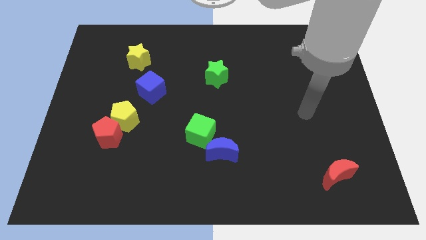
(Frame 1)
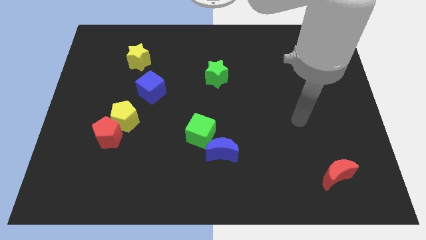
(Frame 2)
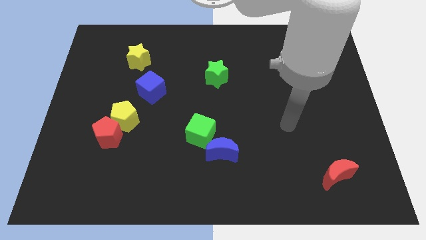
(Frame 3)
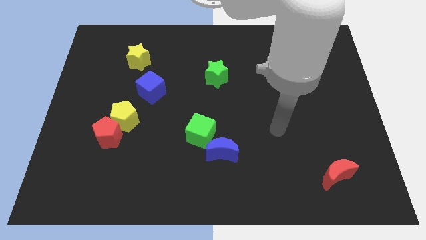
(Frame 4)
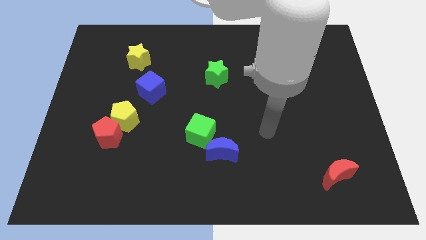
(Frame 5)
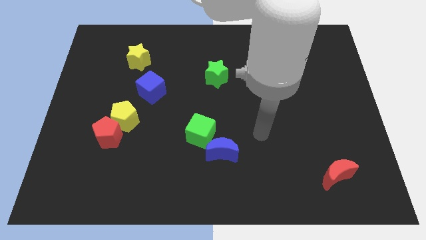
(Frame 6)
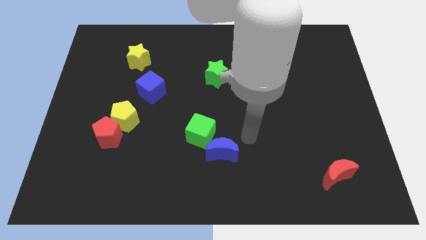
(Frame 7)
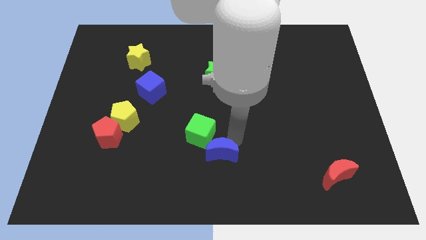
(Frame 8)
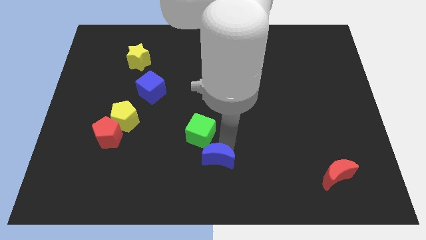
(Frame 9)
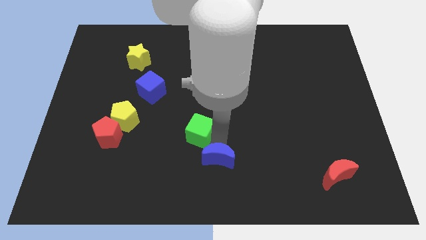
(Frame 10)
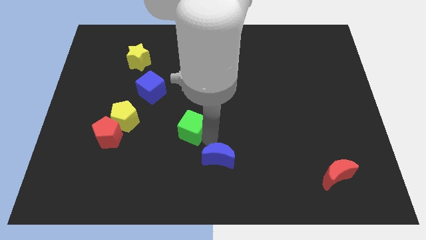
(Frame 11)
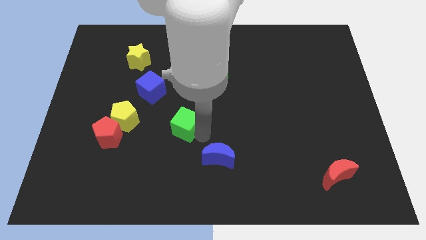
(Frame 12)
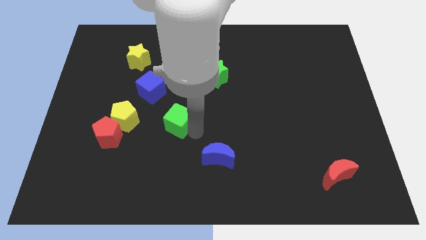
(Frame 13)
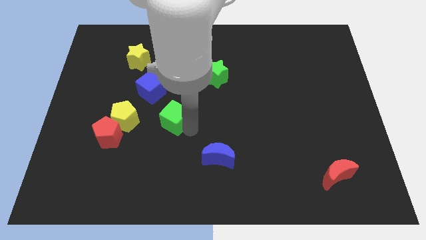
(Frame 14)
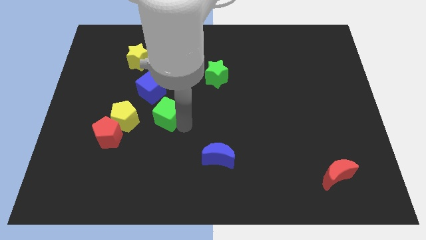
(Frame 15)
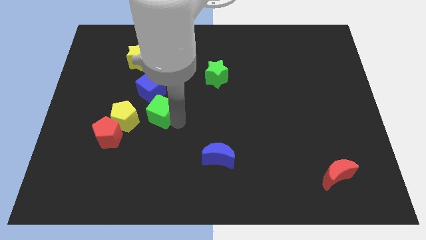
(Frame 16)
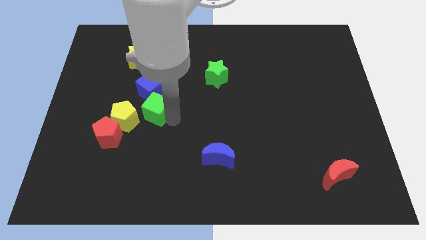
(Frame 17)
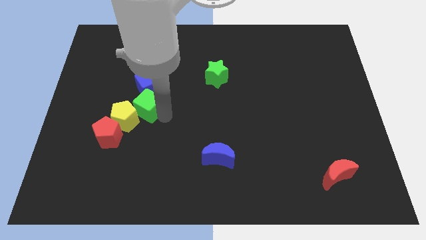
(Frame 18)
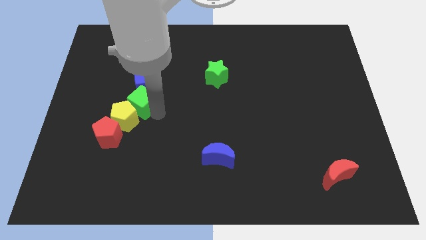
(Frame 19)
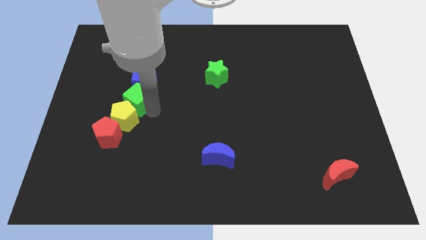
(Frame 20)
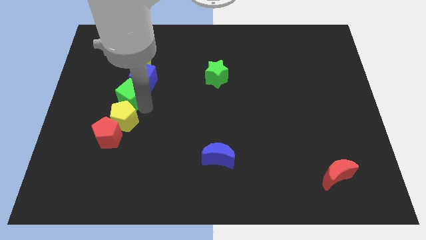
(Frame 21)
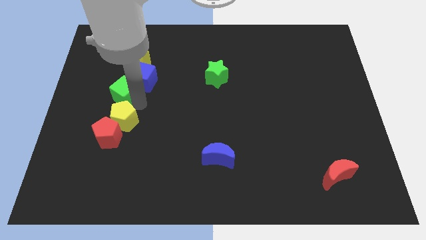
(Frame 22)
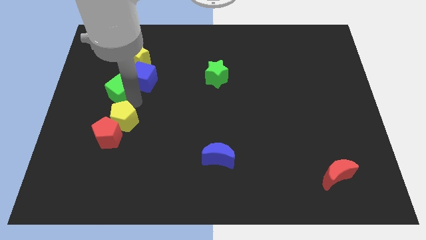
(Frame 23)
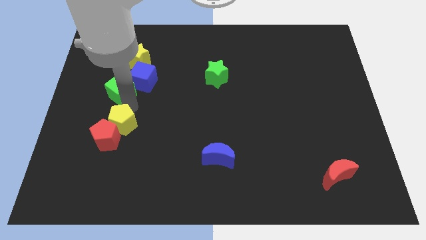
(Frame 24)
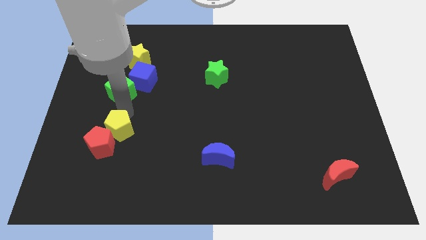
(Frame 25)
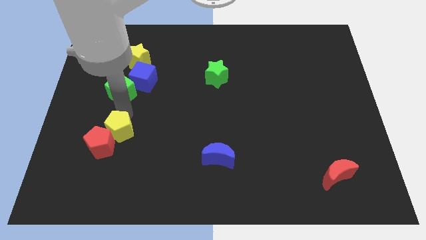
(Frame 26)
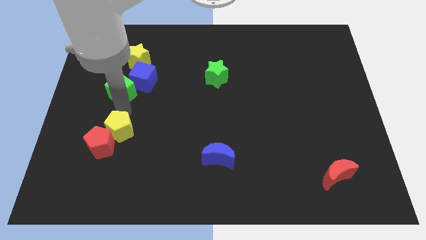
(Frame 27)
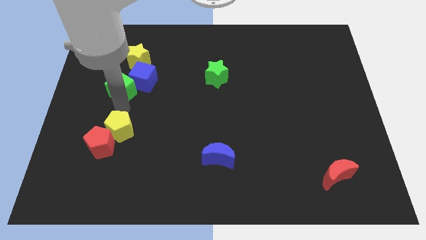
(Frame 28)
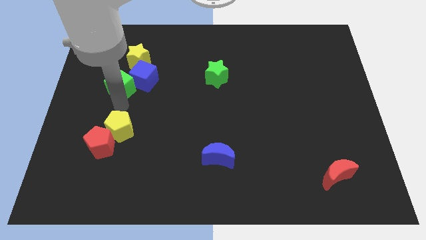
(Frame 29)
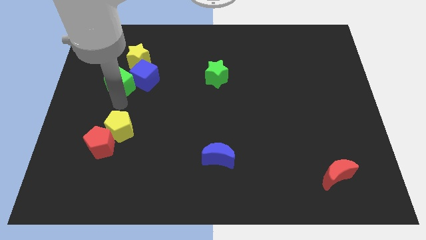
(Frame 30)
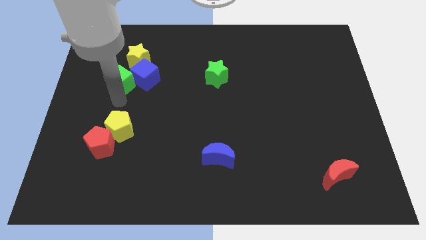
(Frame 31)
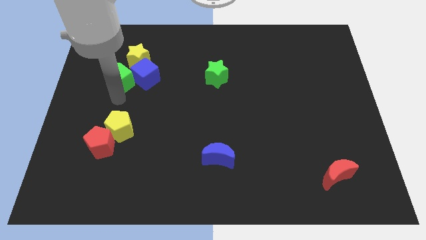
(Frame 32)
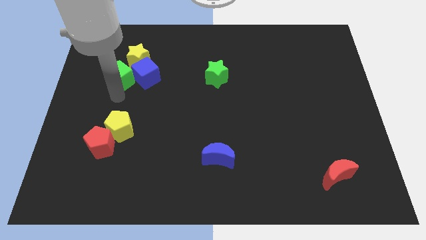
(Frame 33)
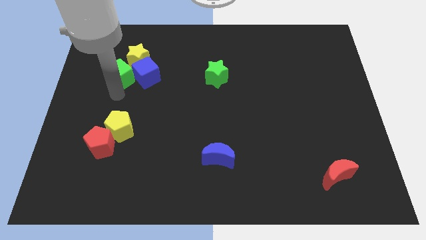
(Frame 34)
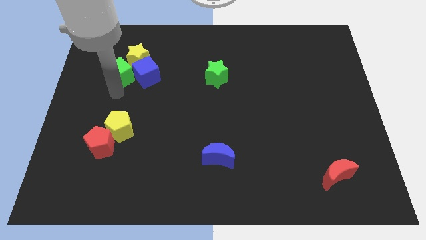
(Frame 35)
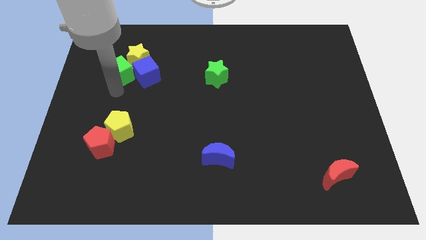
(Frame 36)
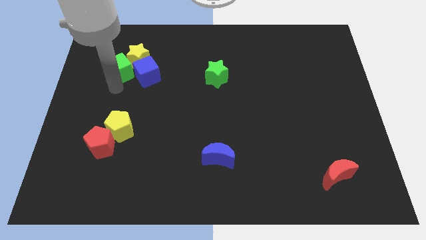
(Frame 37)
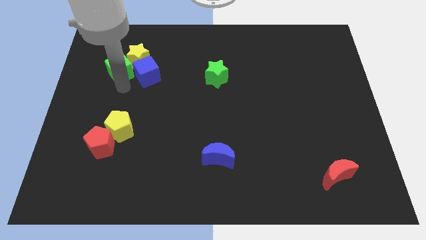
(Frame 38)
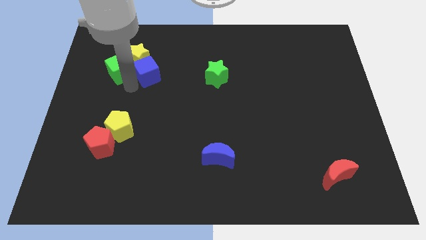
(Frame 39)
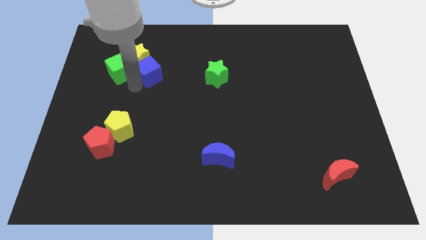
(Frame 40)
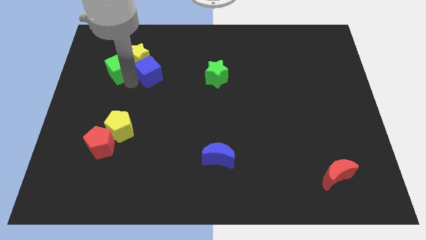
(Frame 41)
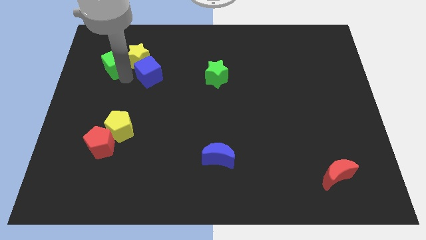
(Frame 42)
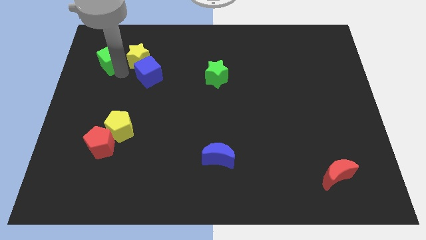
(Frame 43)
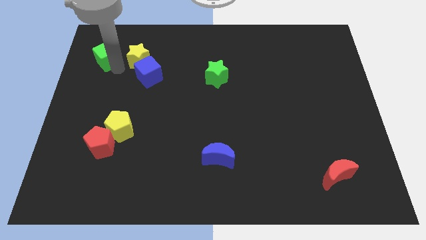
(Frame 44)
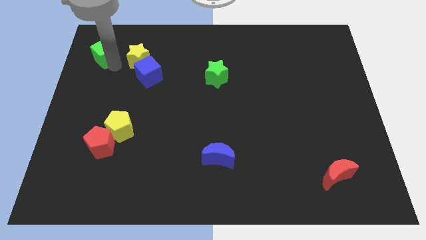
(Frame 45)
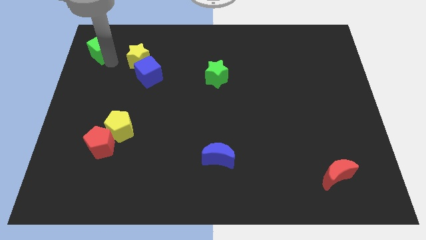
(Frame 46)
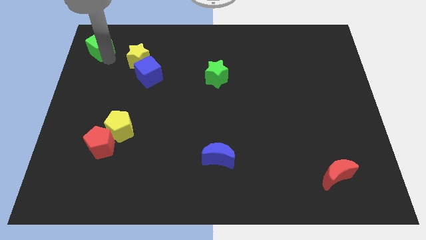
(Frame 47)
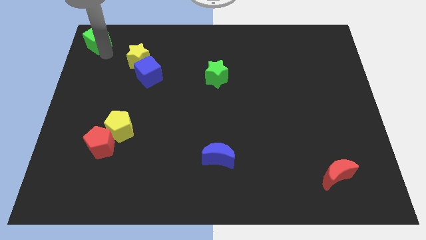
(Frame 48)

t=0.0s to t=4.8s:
slide the green cube to the top left of the board

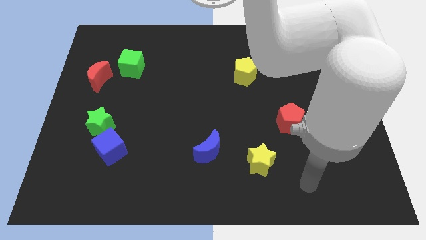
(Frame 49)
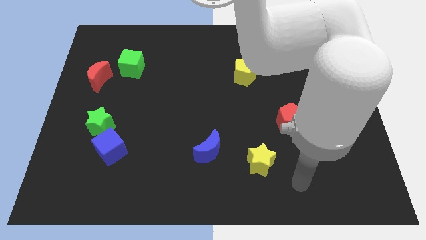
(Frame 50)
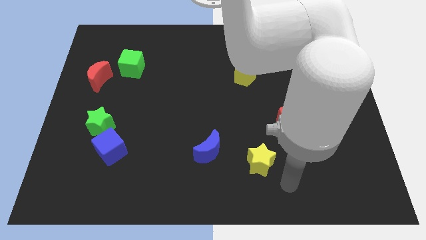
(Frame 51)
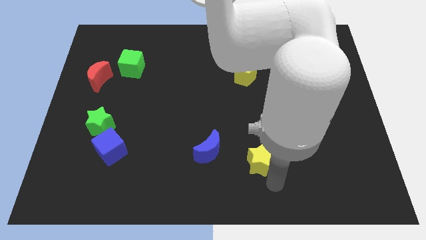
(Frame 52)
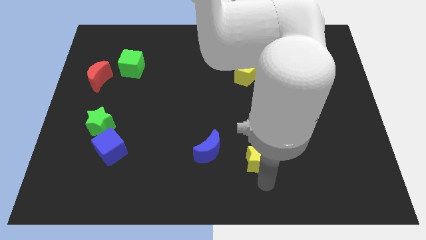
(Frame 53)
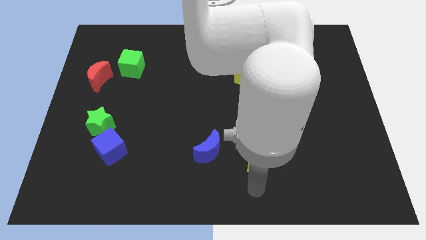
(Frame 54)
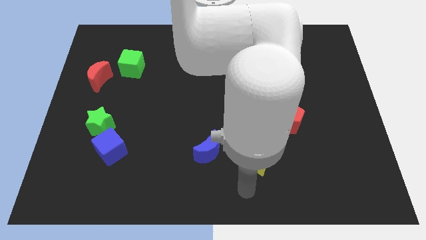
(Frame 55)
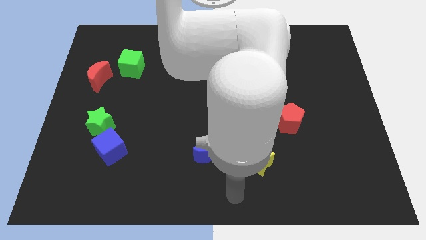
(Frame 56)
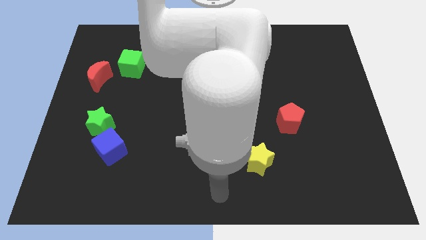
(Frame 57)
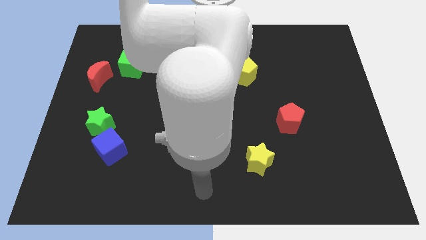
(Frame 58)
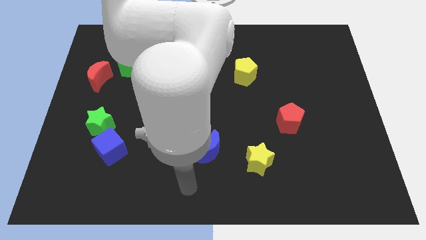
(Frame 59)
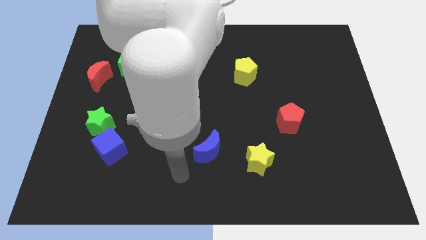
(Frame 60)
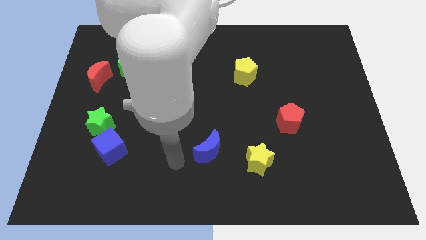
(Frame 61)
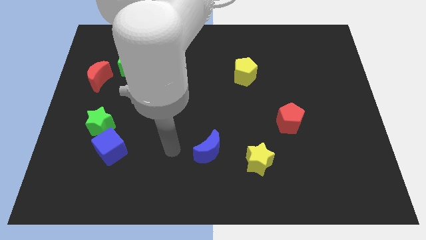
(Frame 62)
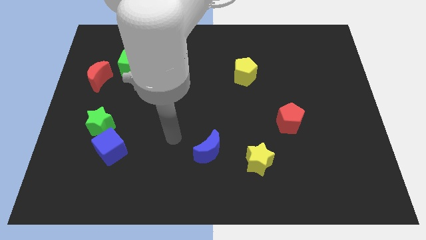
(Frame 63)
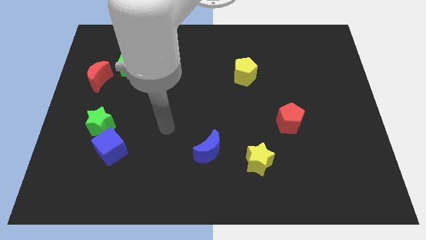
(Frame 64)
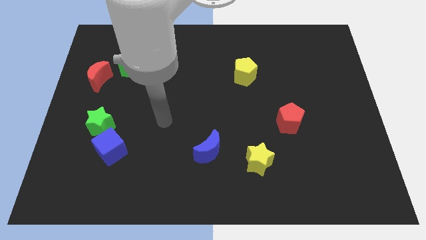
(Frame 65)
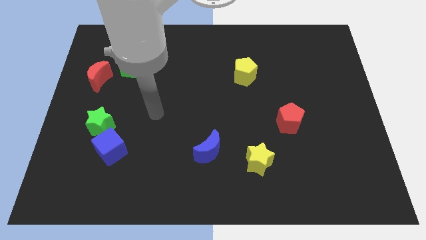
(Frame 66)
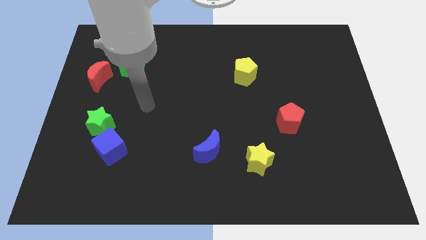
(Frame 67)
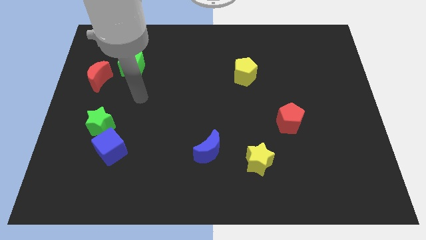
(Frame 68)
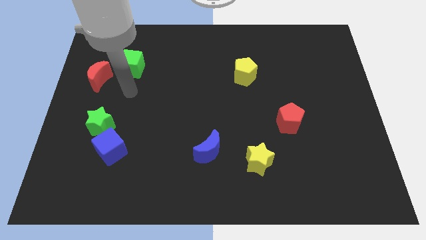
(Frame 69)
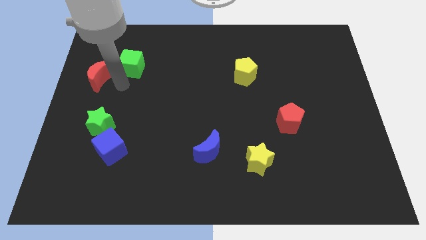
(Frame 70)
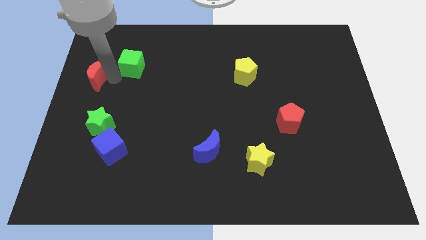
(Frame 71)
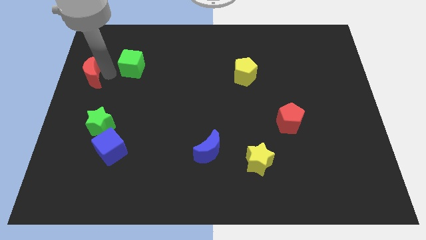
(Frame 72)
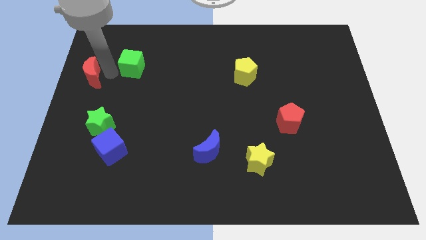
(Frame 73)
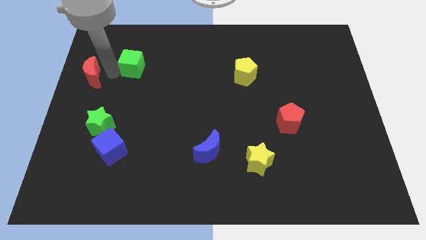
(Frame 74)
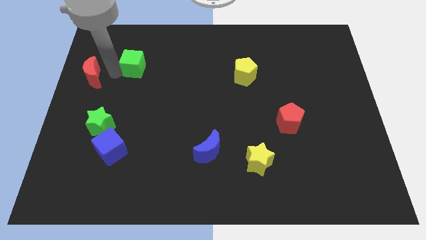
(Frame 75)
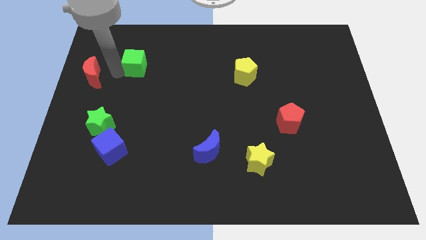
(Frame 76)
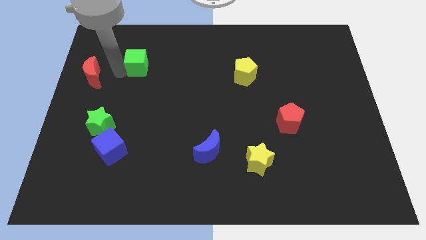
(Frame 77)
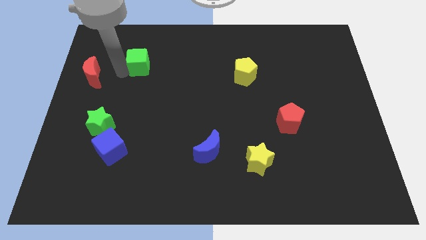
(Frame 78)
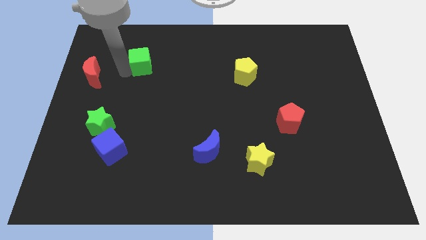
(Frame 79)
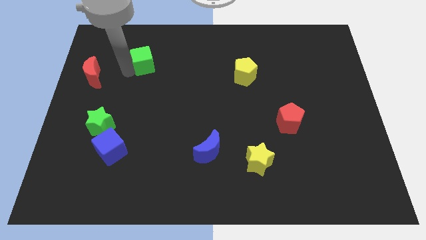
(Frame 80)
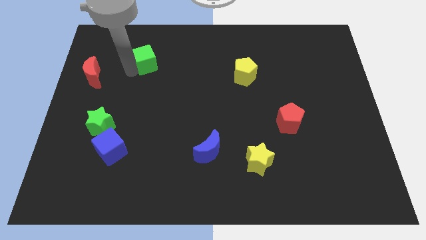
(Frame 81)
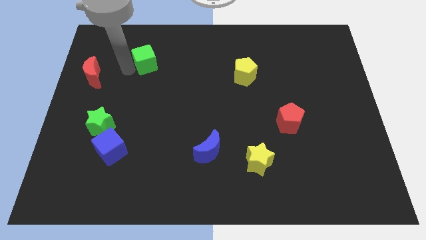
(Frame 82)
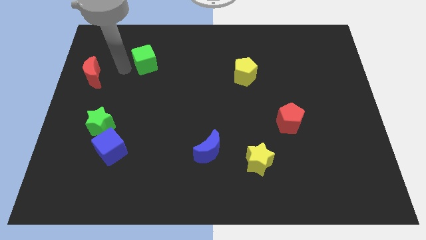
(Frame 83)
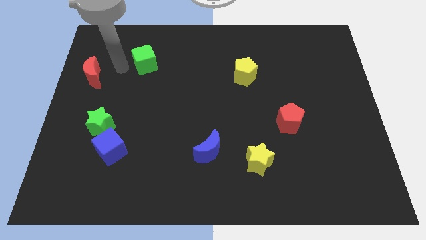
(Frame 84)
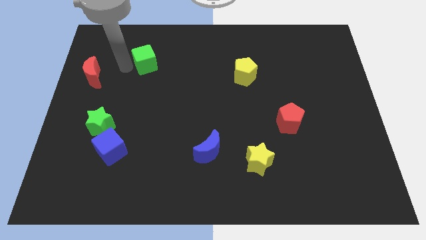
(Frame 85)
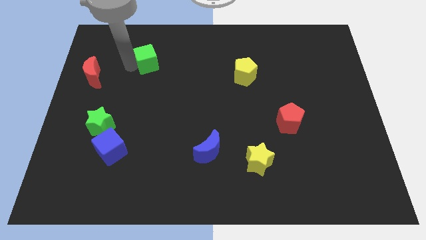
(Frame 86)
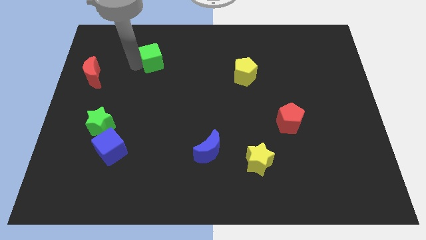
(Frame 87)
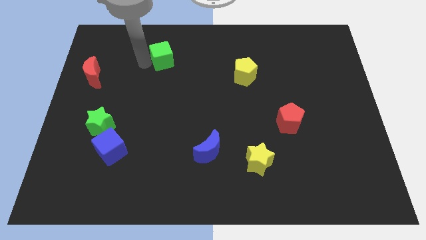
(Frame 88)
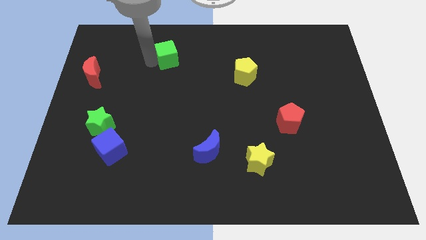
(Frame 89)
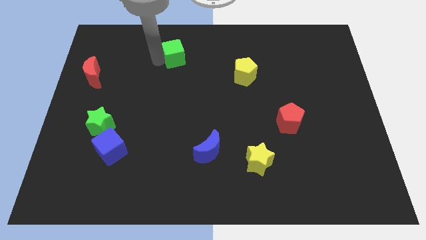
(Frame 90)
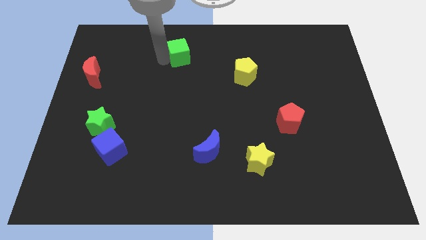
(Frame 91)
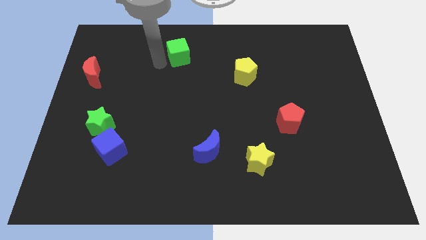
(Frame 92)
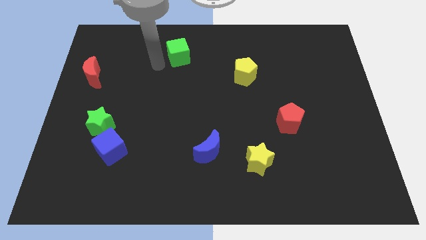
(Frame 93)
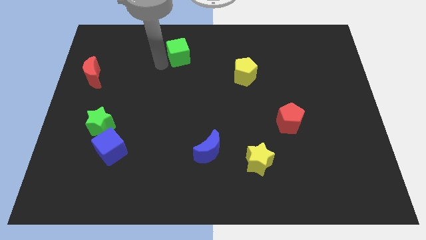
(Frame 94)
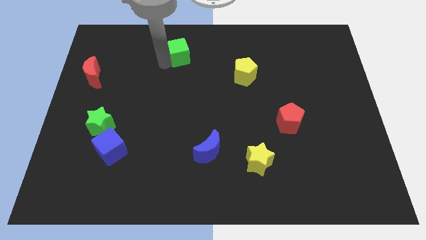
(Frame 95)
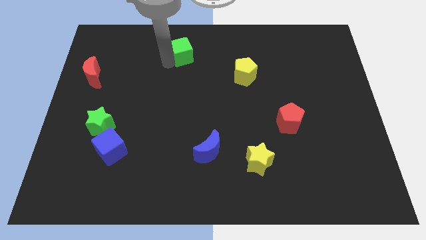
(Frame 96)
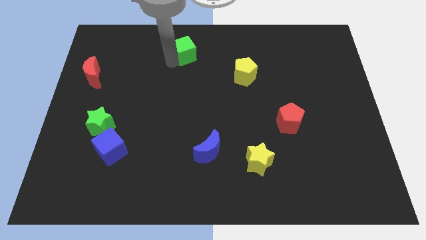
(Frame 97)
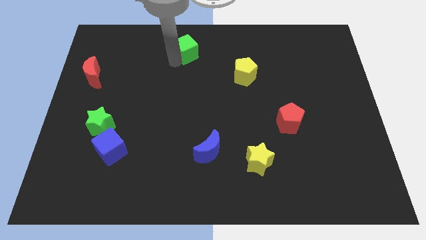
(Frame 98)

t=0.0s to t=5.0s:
move the green cube to the top
